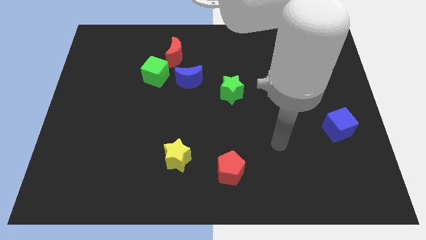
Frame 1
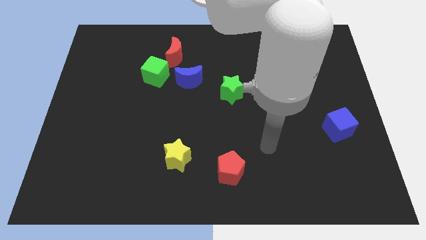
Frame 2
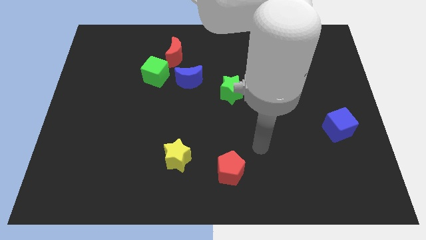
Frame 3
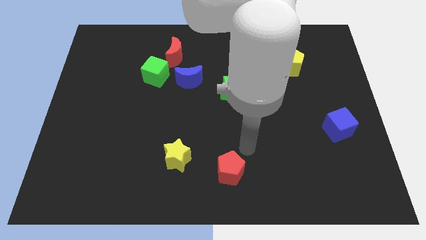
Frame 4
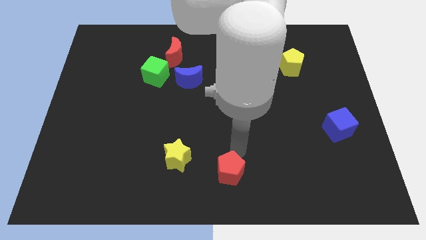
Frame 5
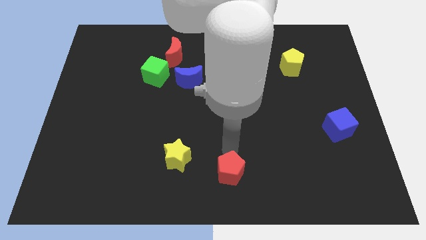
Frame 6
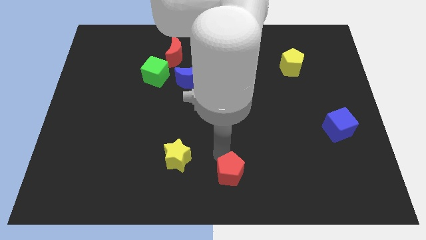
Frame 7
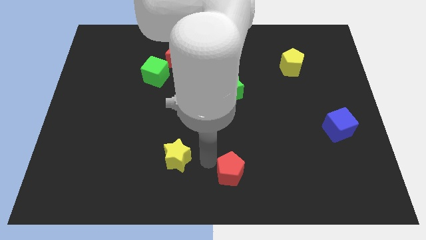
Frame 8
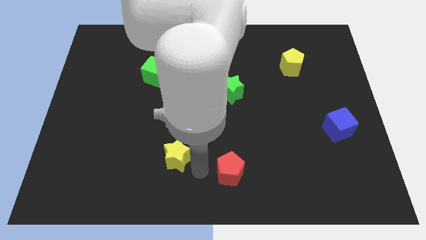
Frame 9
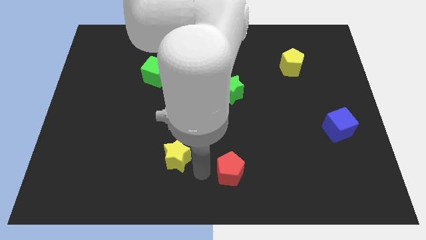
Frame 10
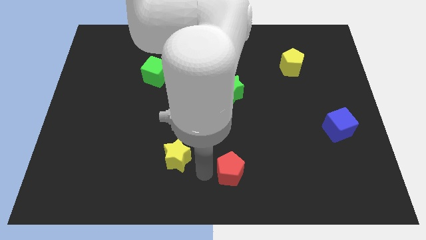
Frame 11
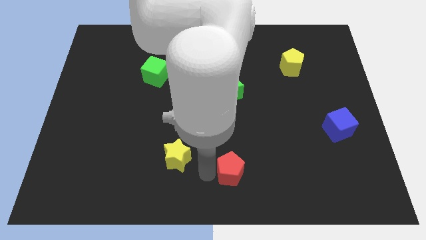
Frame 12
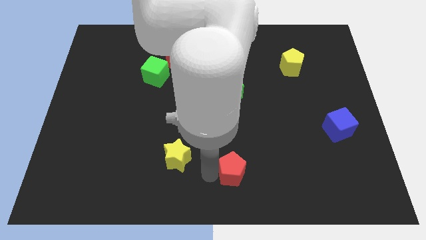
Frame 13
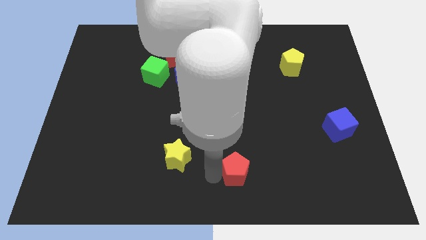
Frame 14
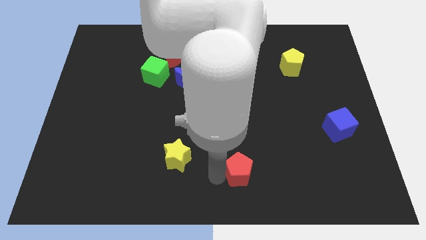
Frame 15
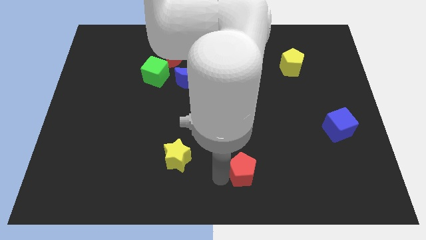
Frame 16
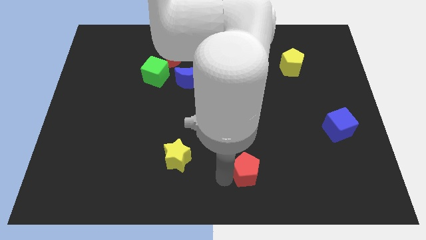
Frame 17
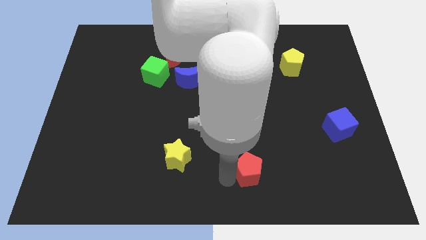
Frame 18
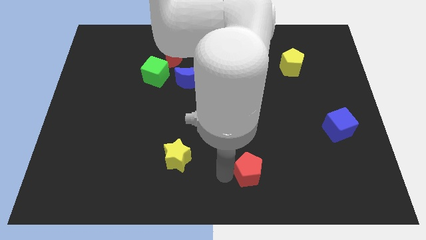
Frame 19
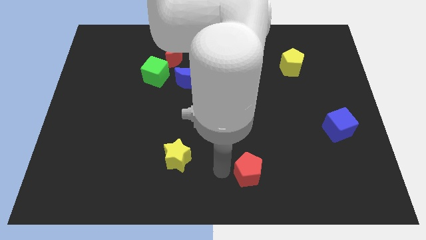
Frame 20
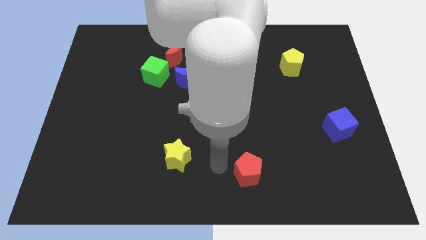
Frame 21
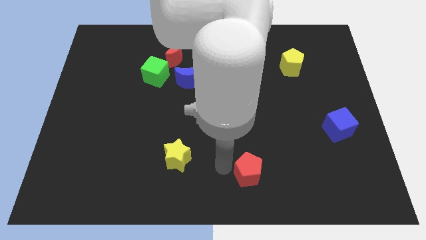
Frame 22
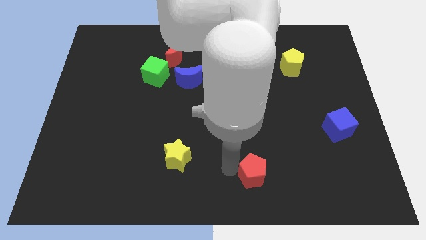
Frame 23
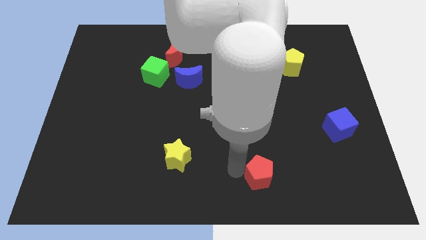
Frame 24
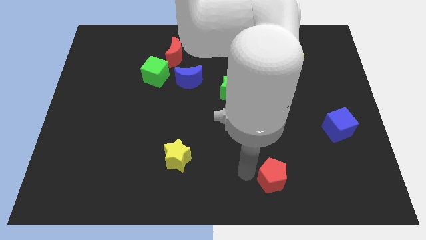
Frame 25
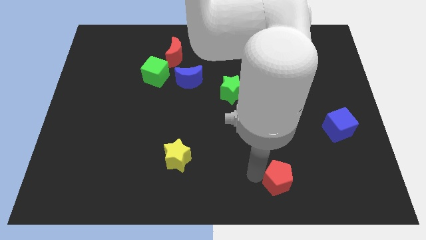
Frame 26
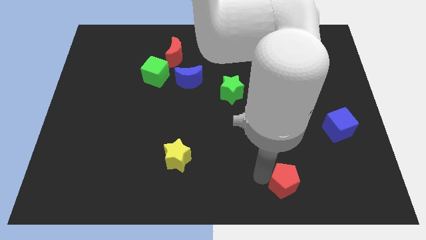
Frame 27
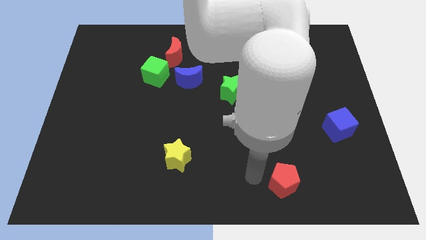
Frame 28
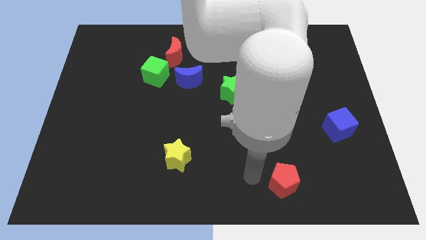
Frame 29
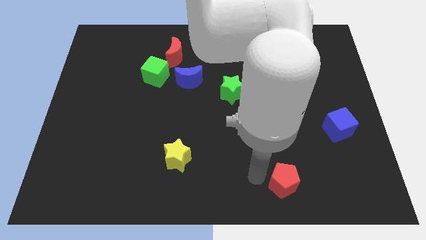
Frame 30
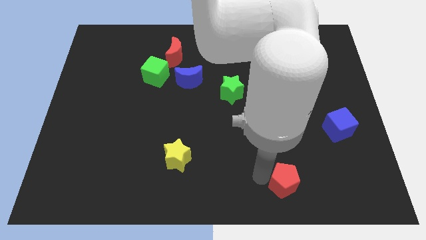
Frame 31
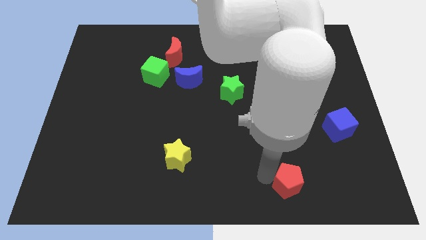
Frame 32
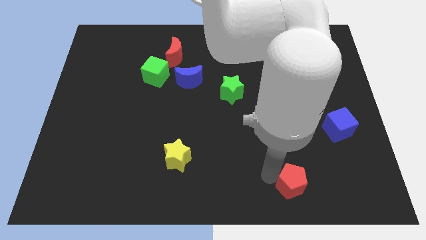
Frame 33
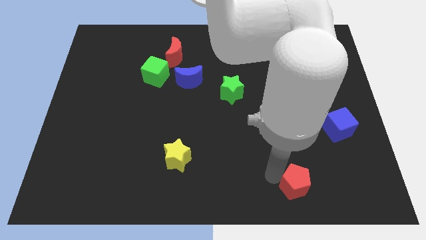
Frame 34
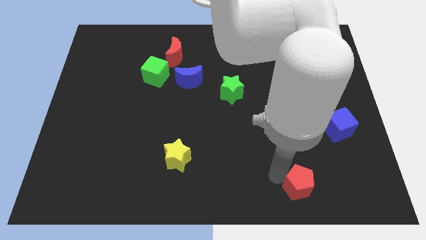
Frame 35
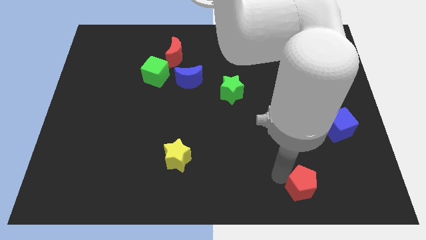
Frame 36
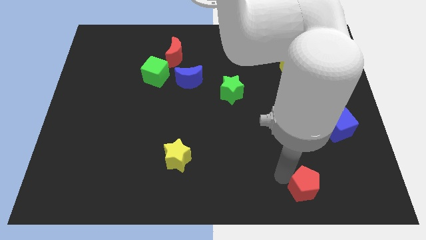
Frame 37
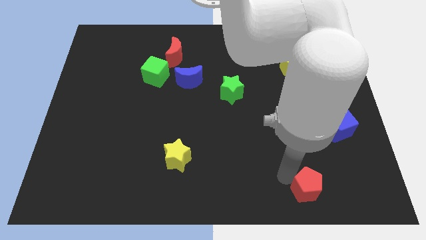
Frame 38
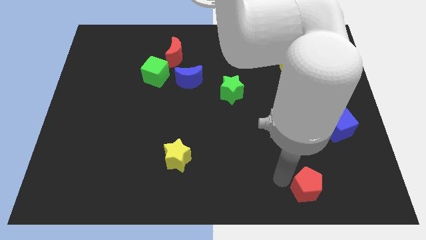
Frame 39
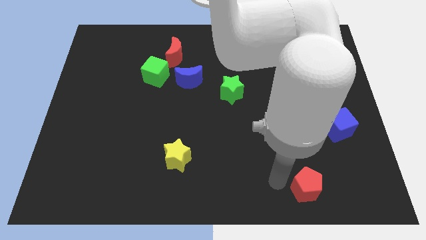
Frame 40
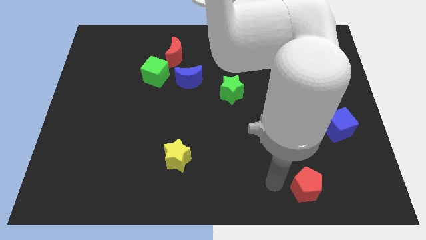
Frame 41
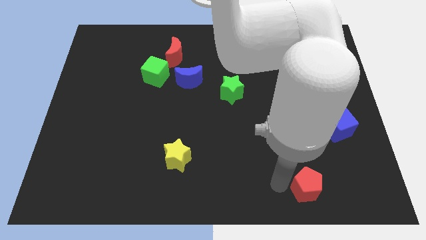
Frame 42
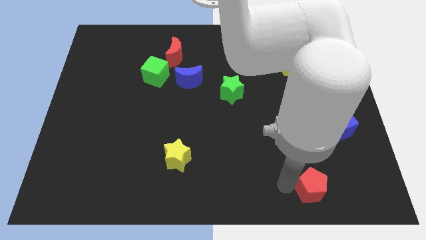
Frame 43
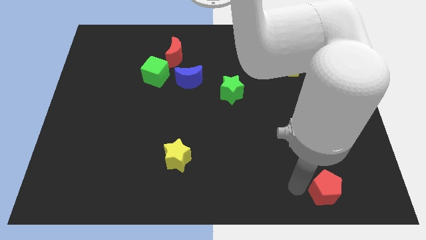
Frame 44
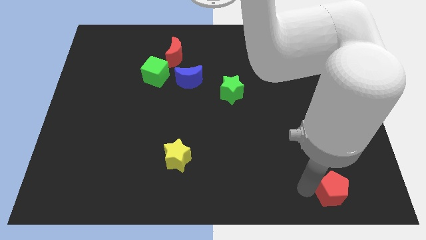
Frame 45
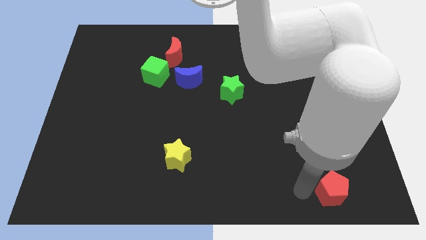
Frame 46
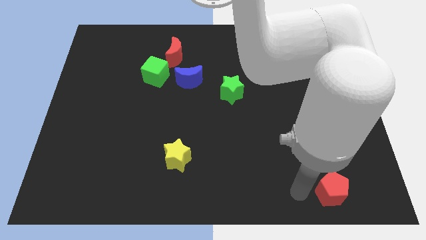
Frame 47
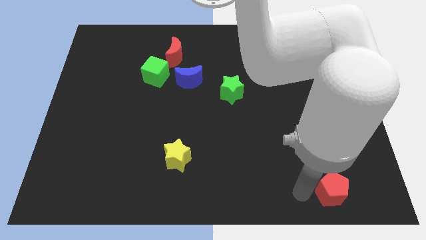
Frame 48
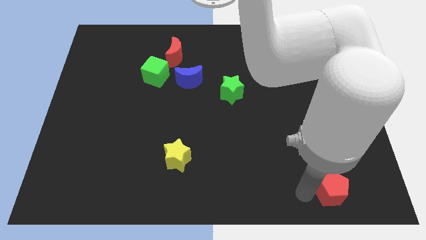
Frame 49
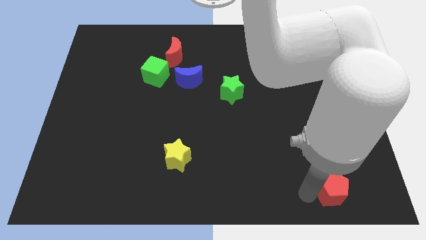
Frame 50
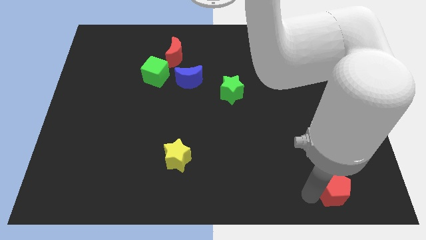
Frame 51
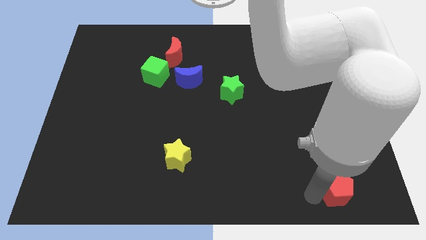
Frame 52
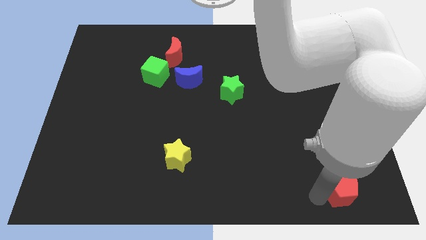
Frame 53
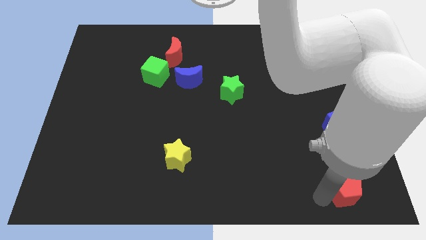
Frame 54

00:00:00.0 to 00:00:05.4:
move the red pentagon to the bottom right of the board
